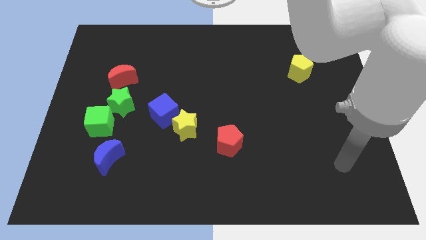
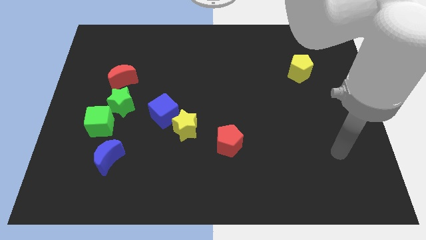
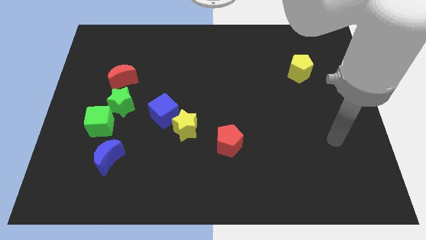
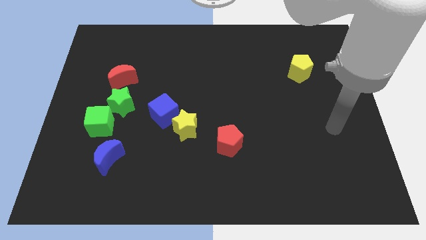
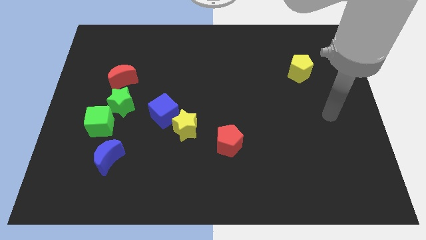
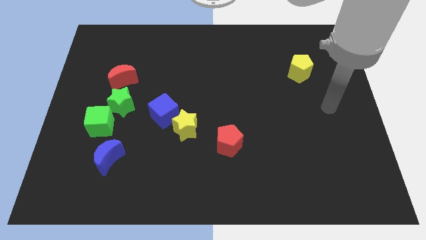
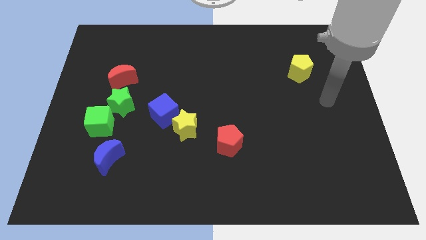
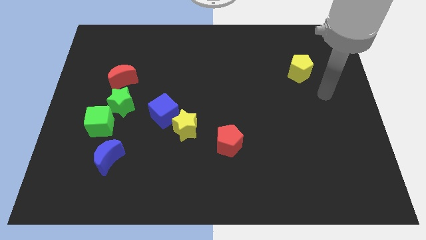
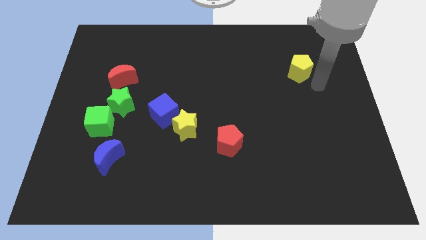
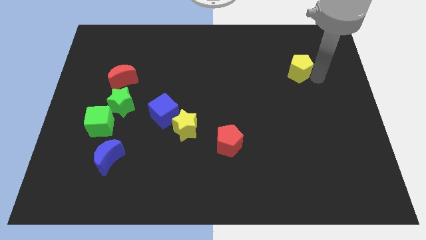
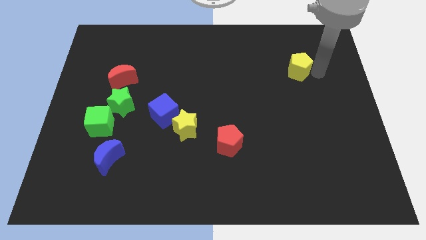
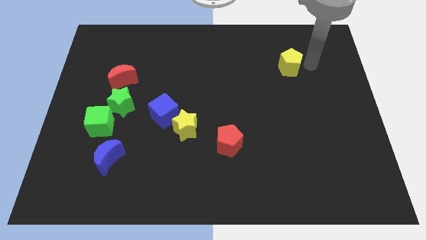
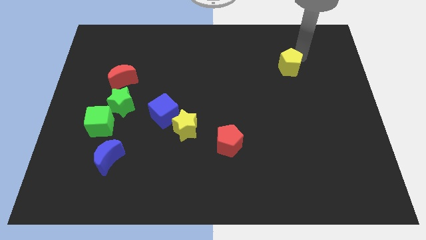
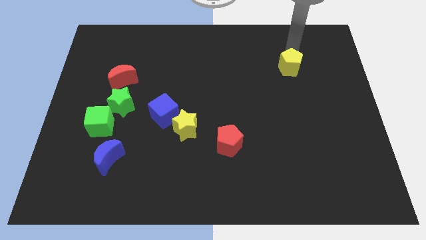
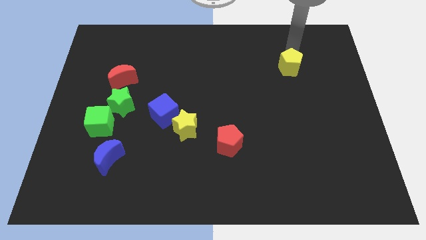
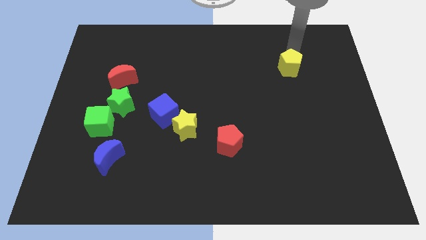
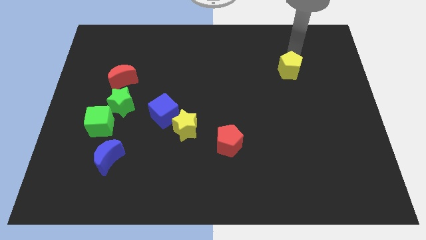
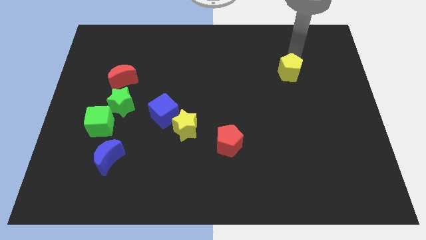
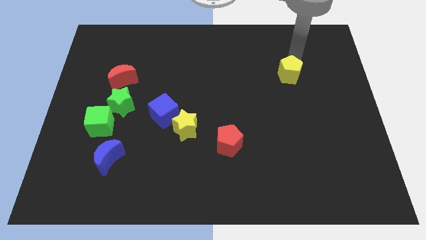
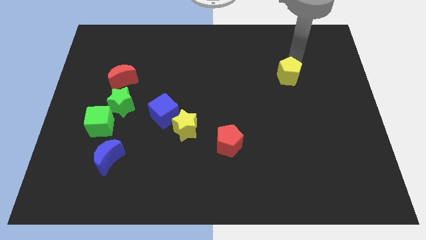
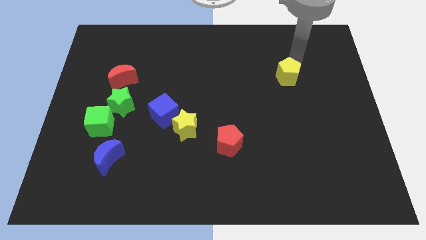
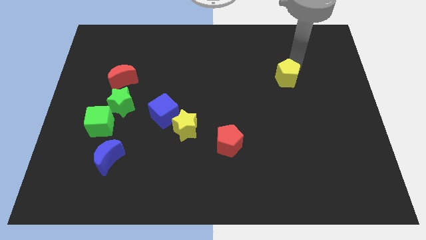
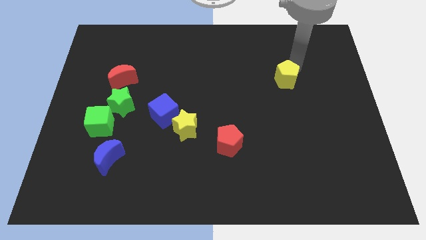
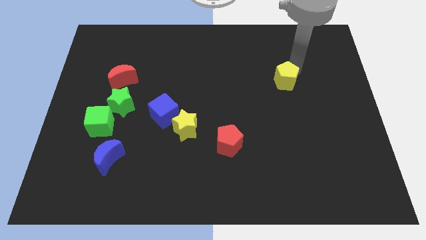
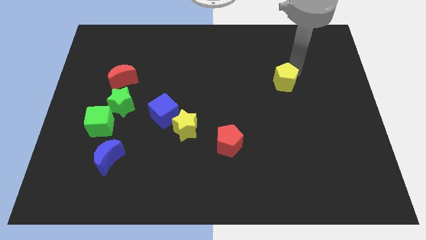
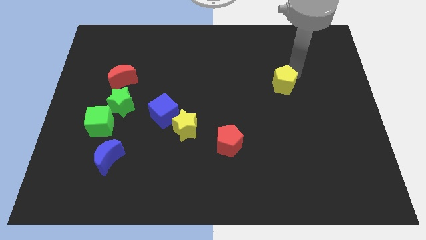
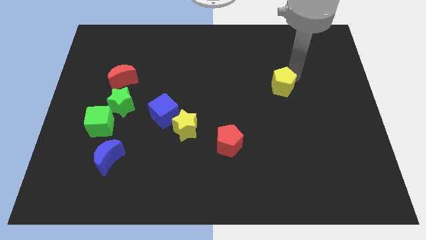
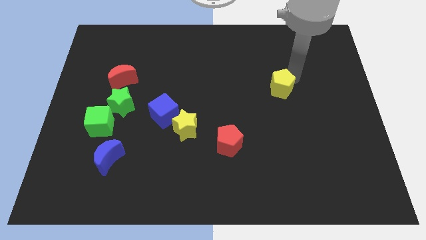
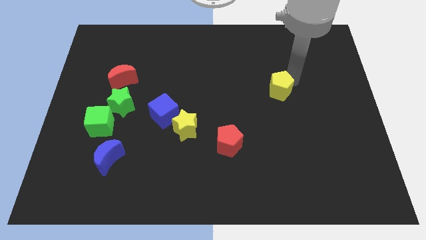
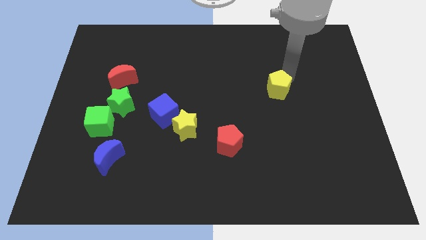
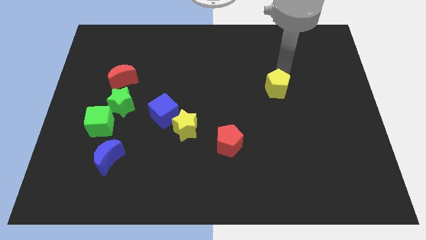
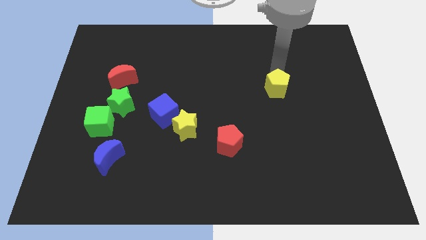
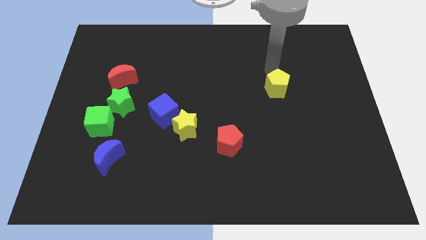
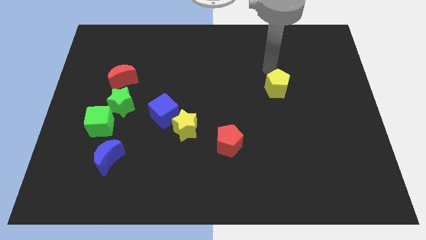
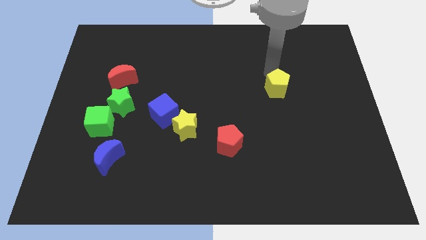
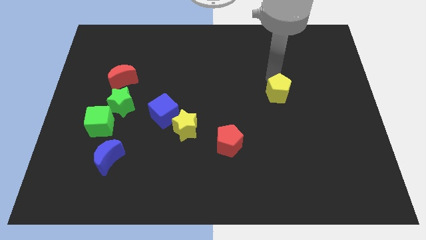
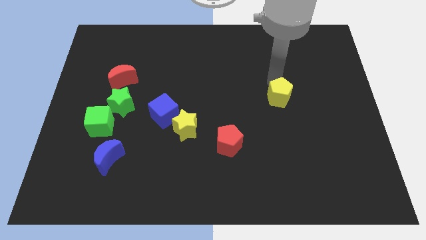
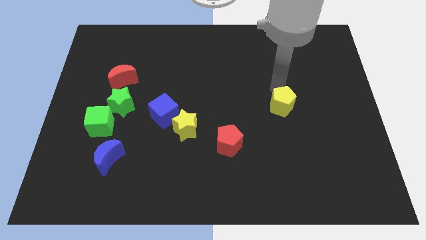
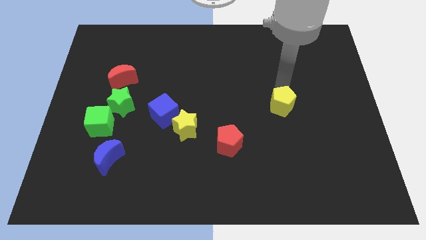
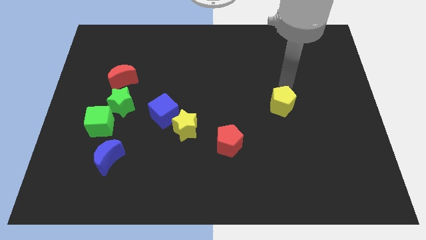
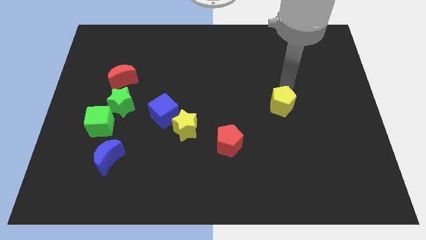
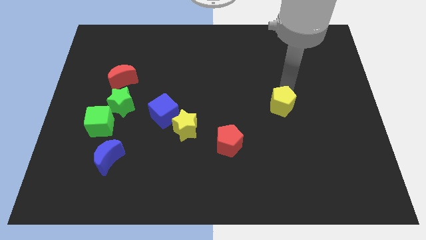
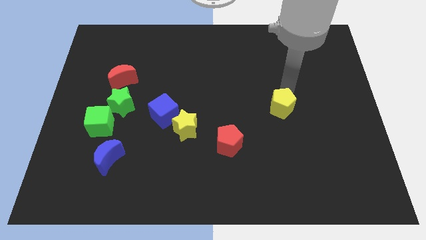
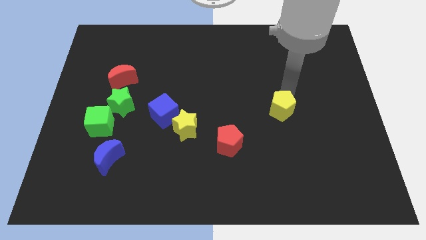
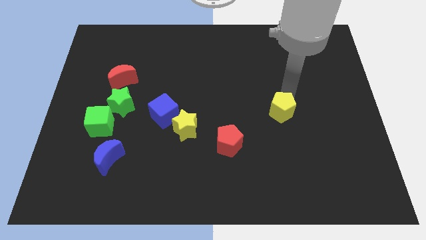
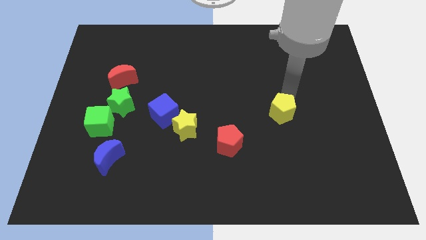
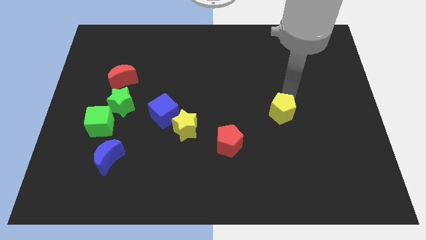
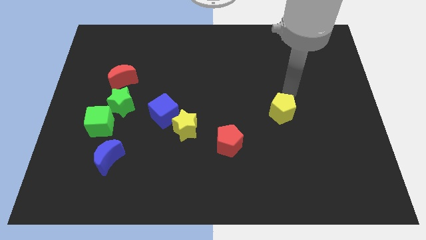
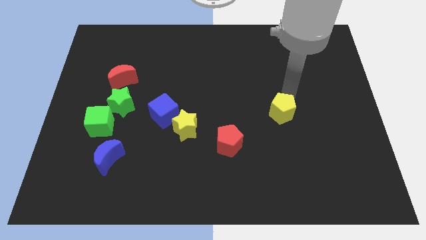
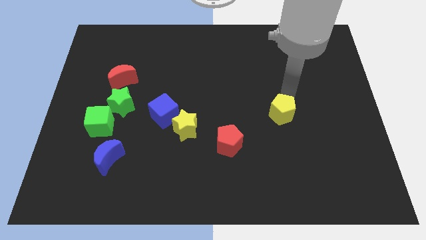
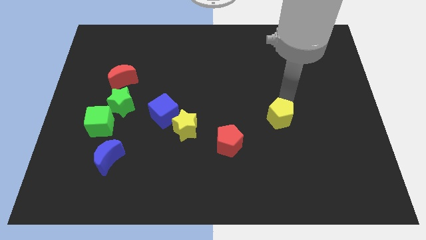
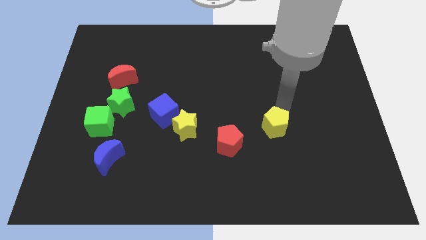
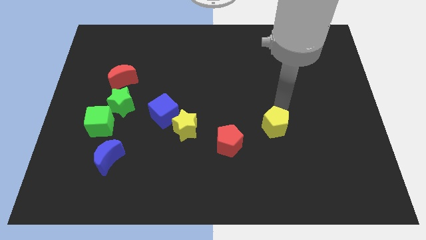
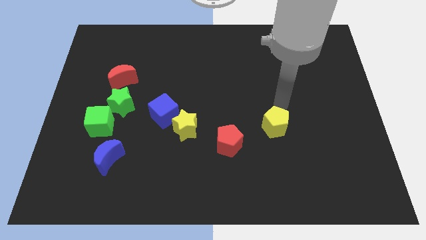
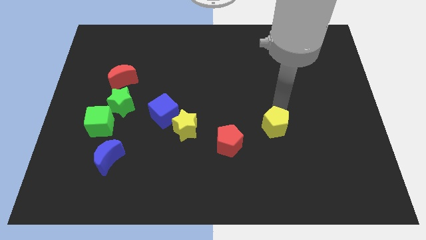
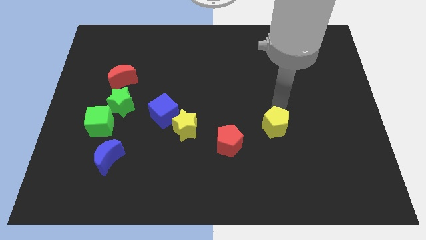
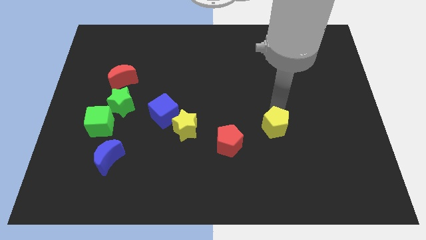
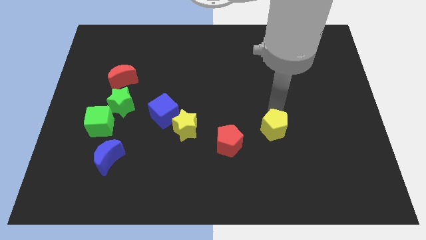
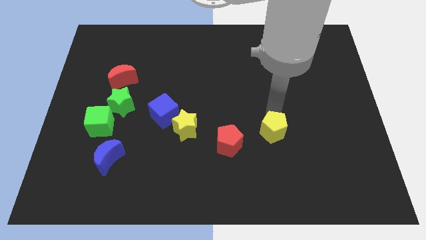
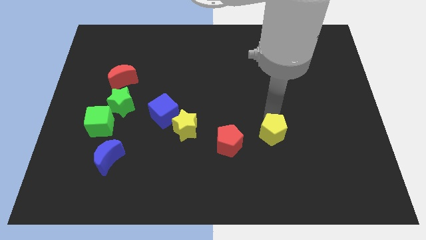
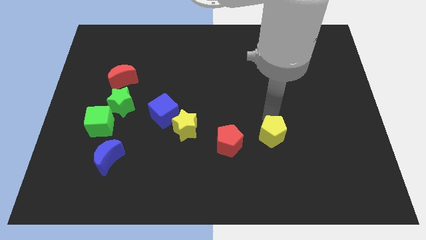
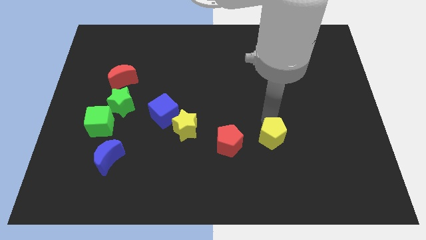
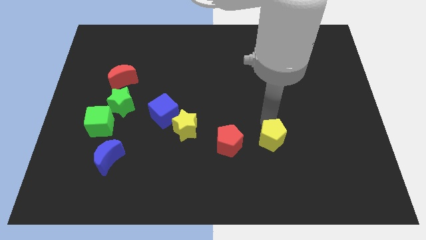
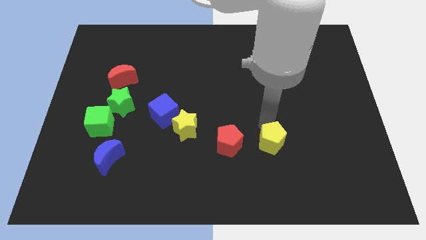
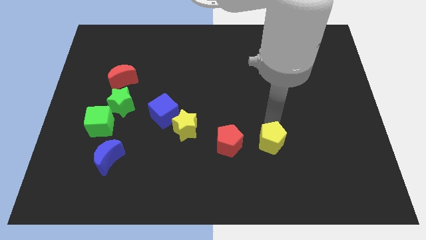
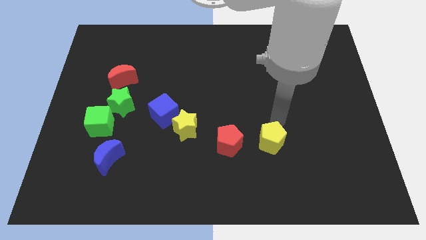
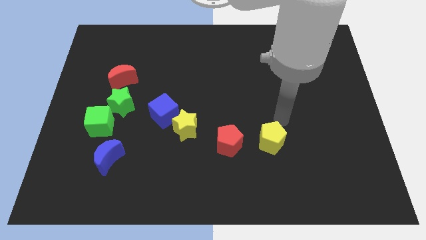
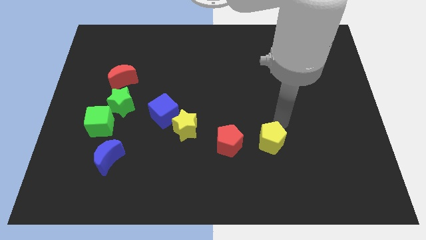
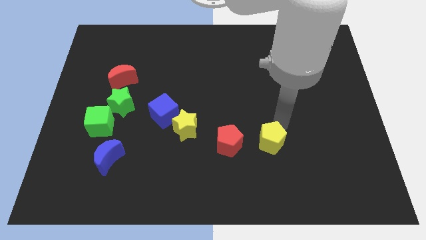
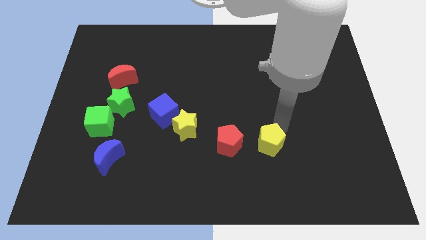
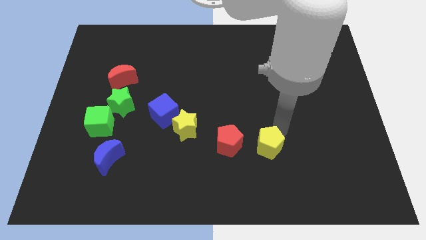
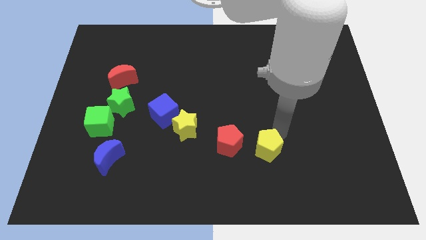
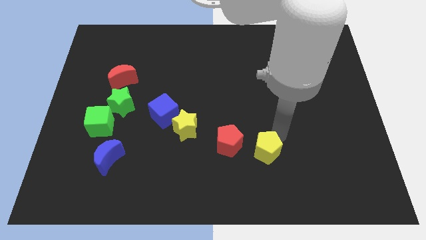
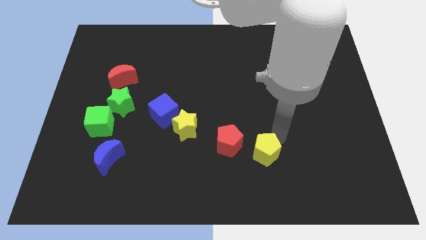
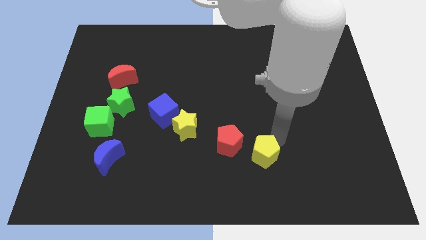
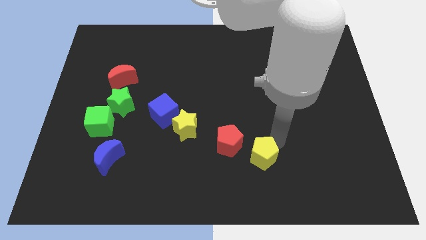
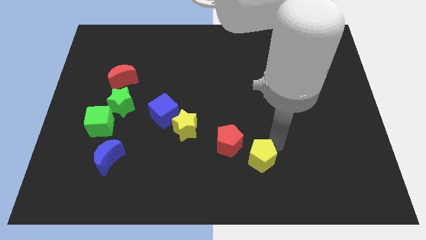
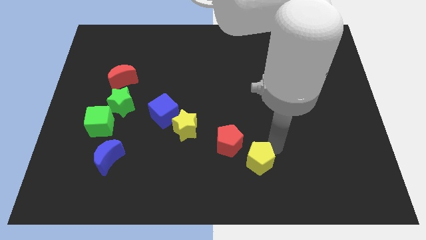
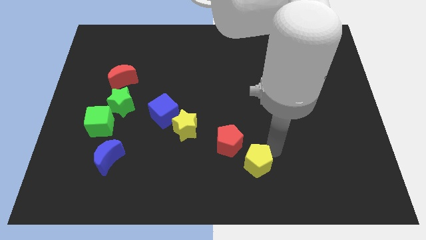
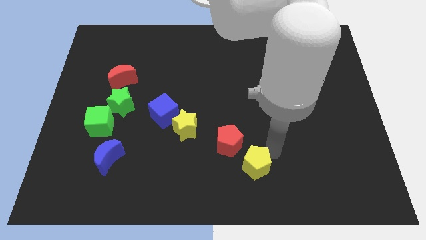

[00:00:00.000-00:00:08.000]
move the yellow pentagon to the bottom side
